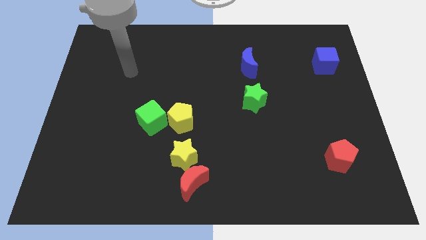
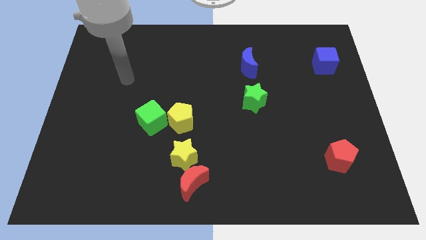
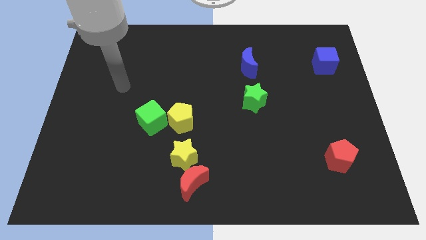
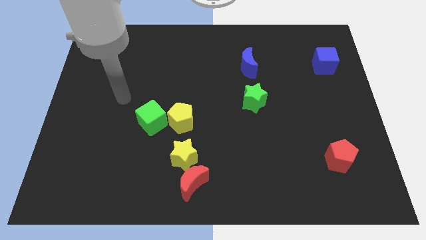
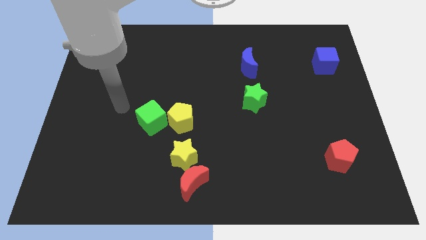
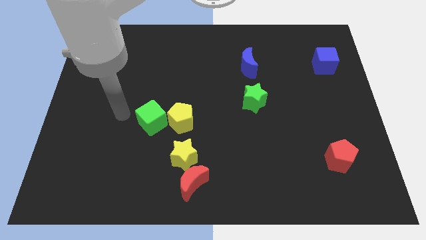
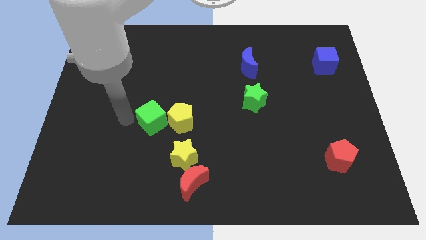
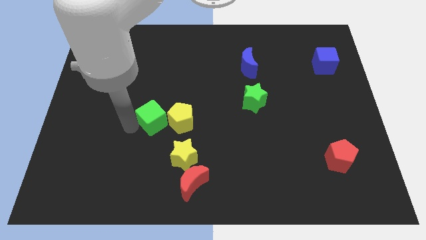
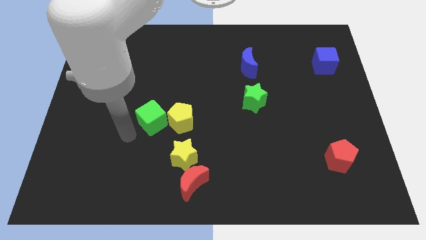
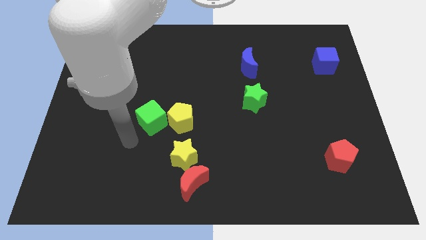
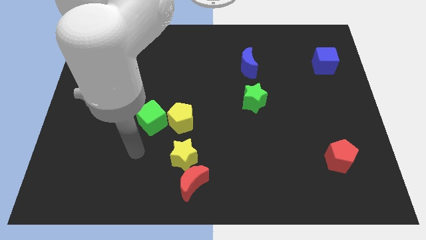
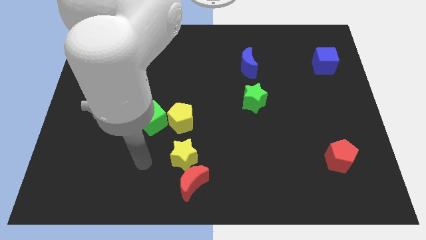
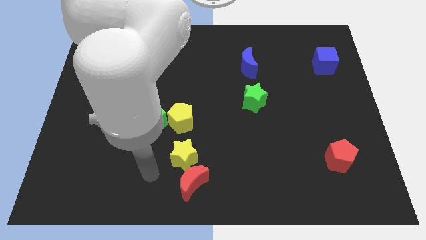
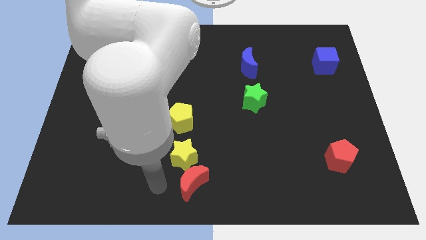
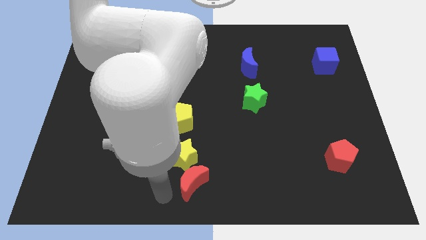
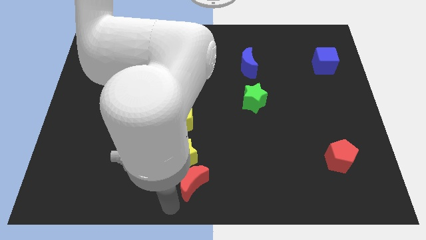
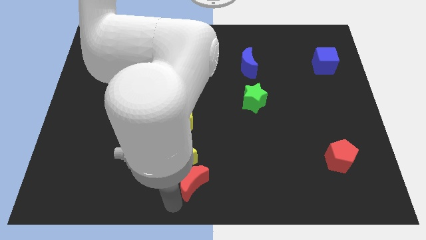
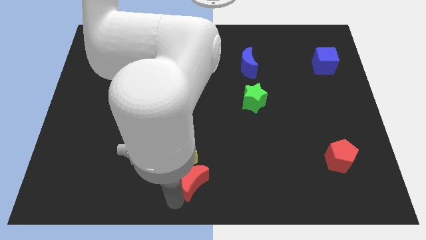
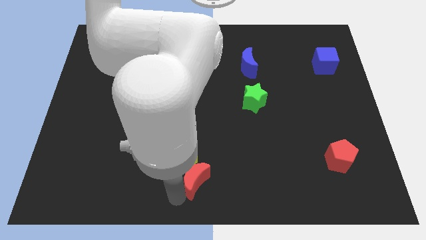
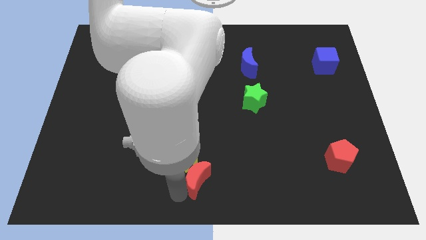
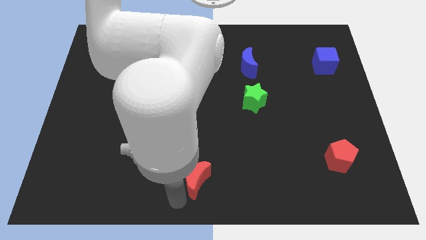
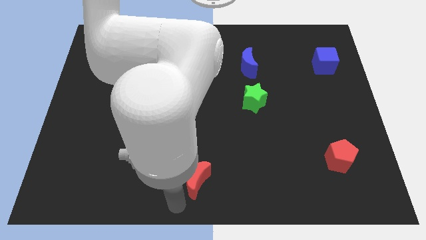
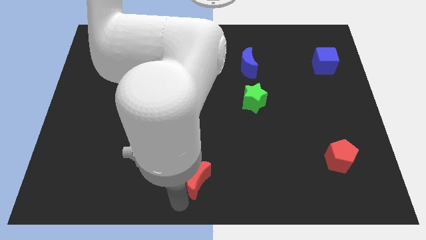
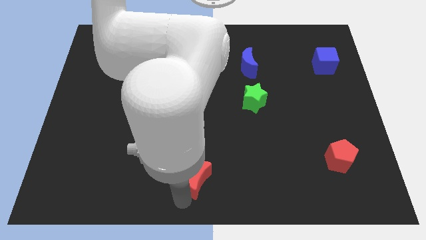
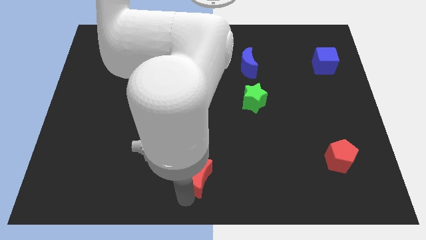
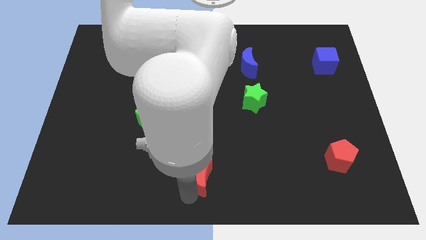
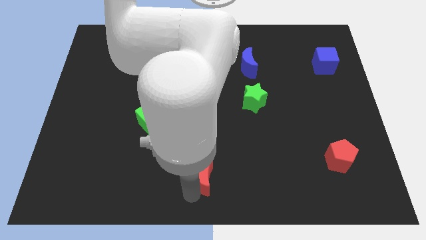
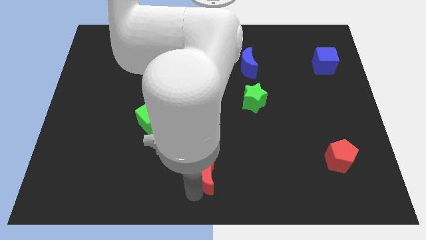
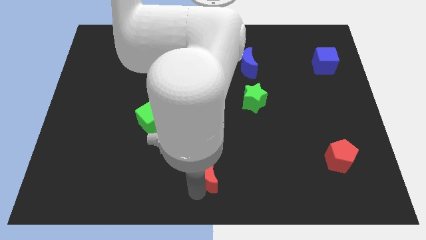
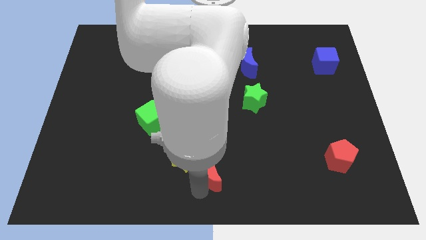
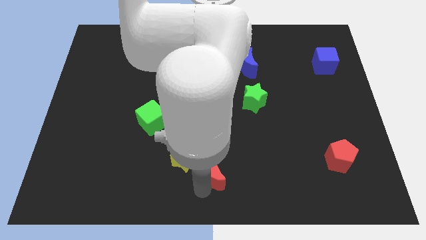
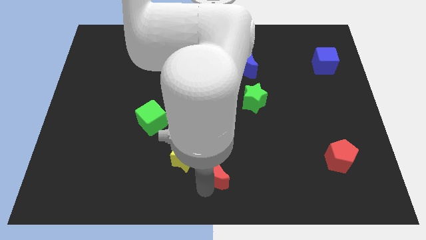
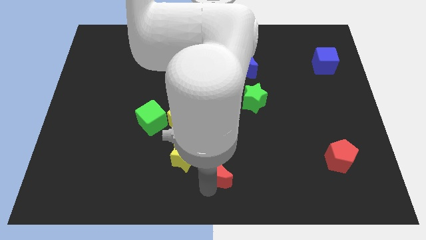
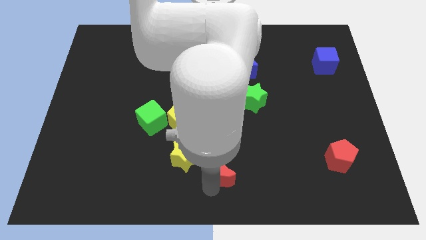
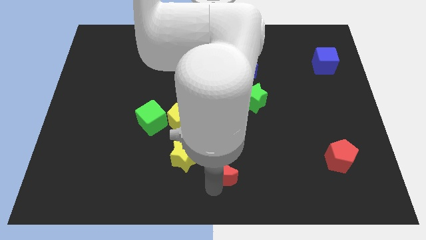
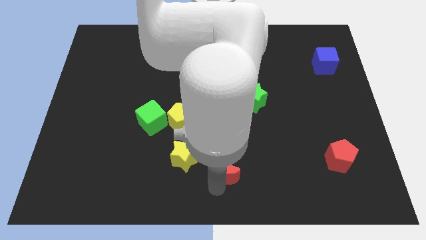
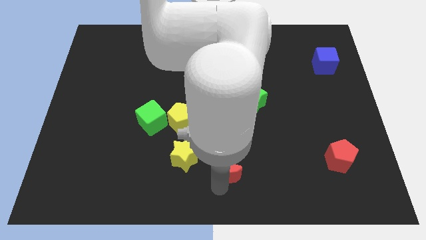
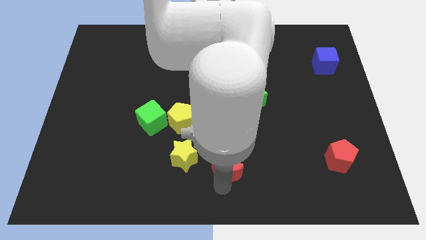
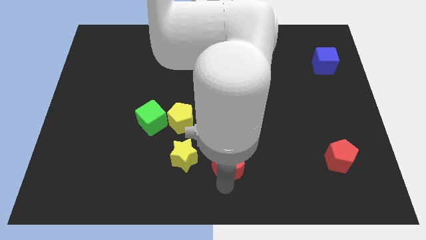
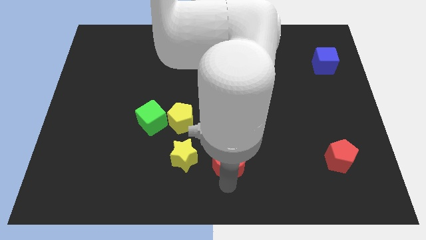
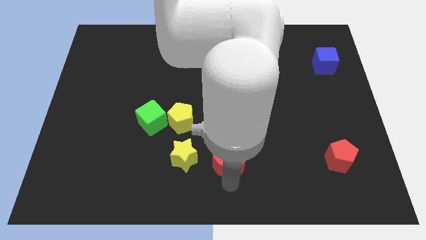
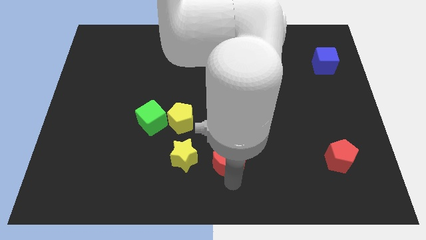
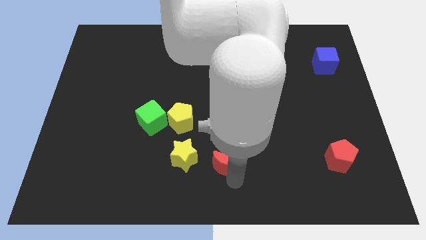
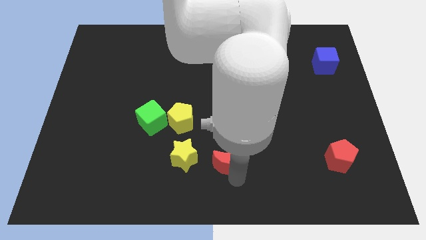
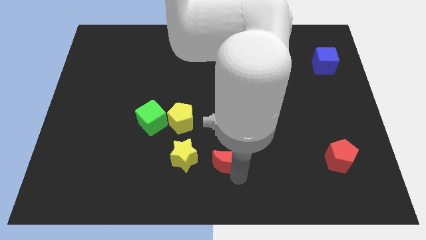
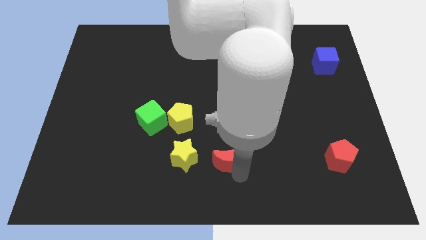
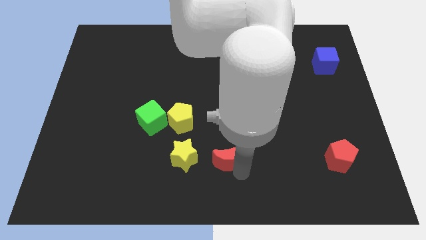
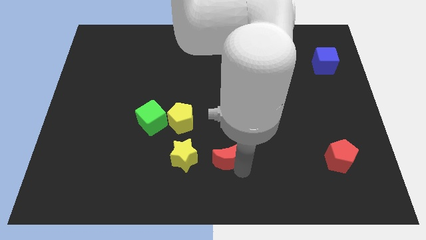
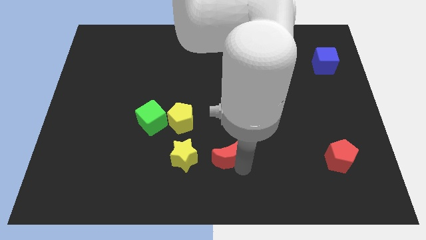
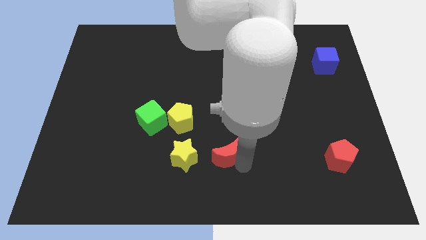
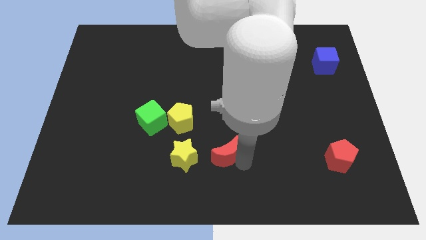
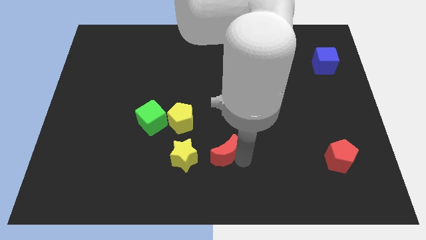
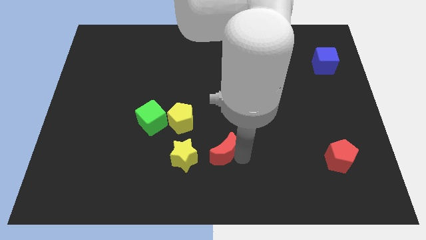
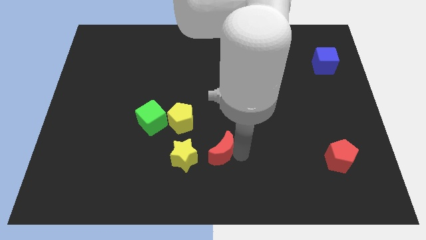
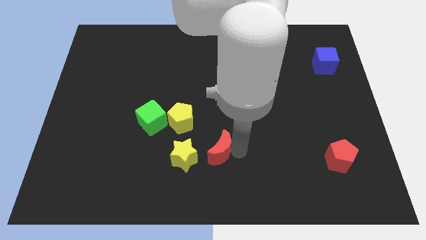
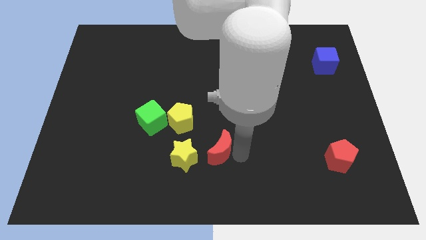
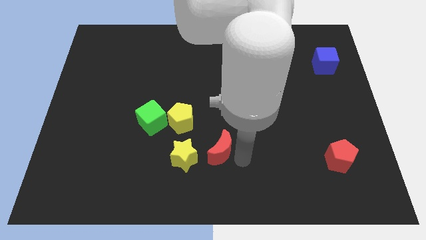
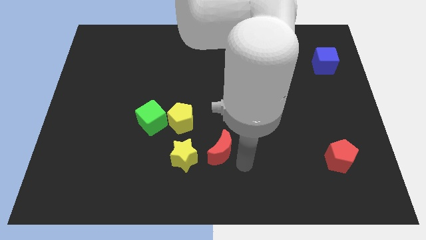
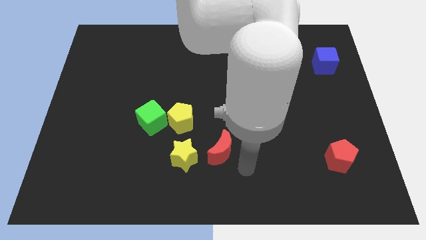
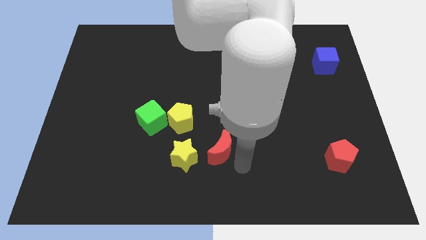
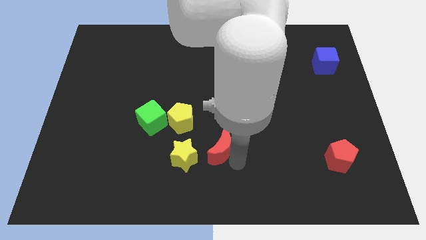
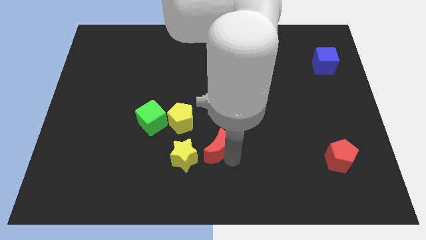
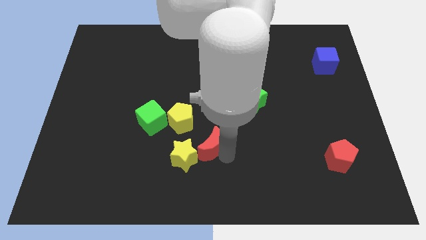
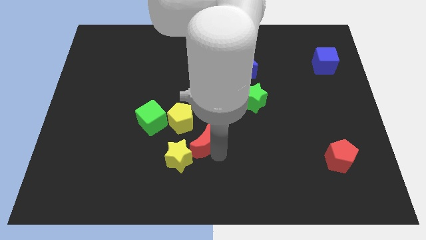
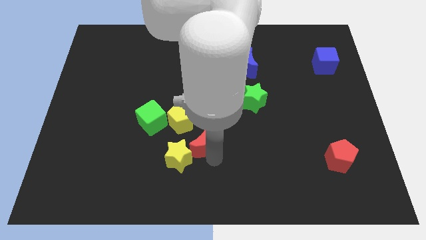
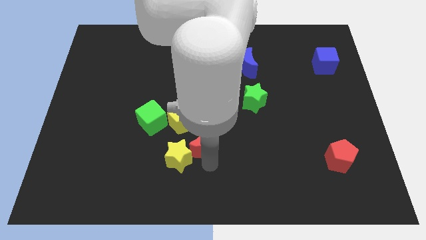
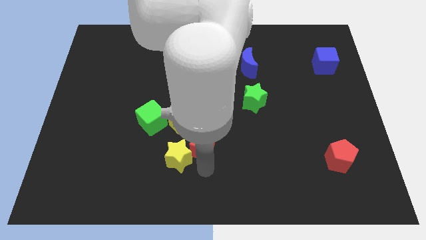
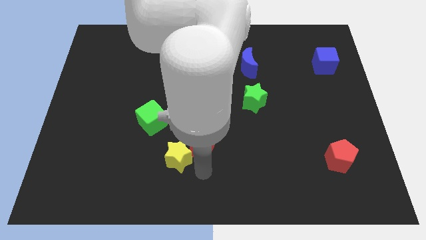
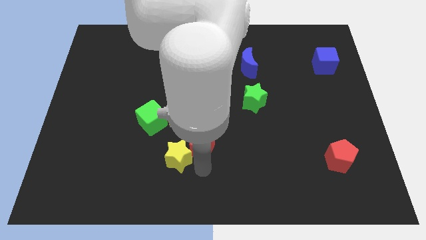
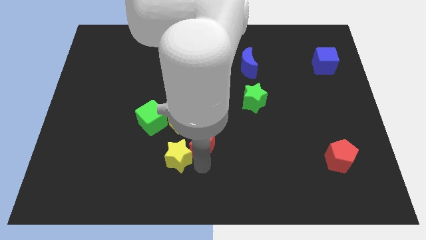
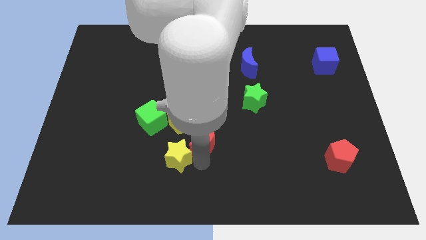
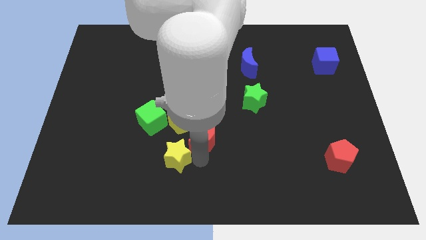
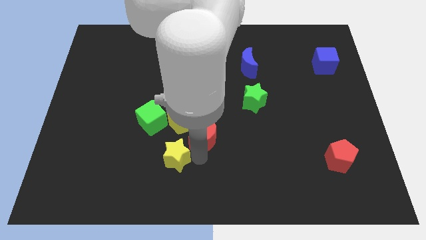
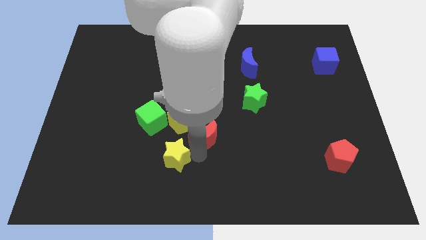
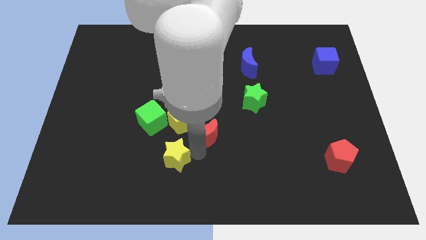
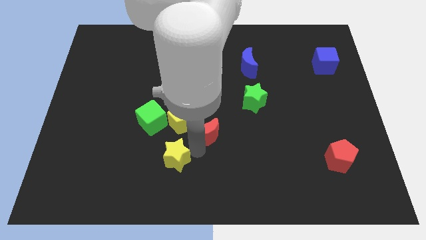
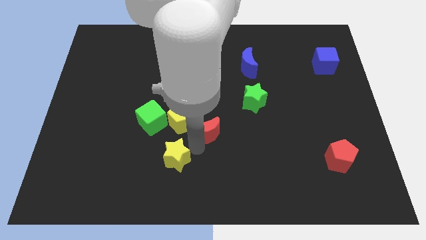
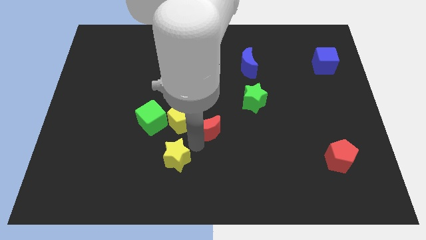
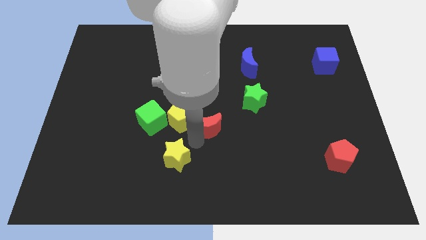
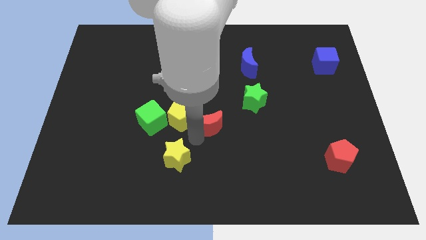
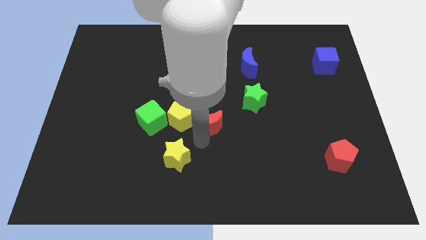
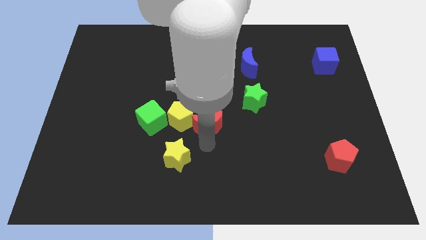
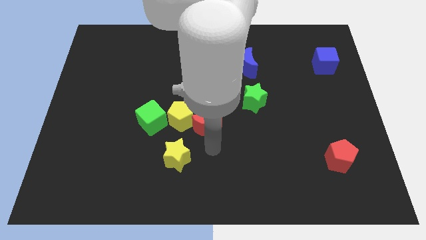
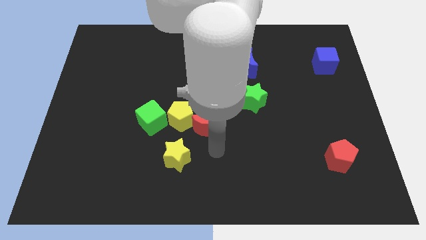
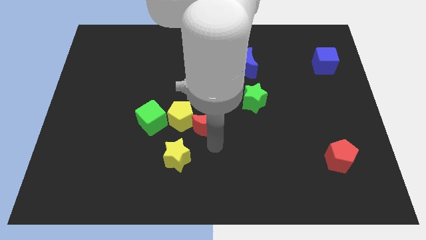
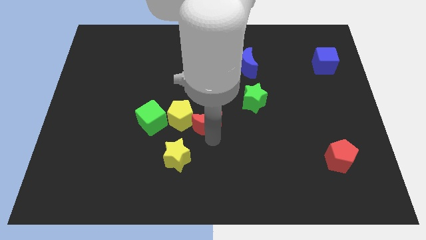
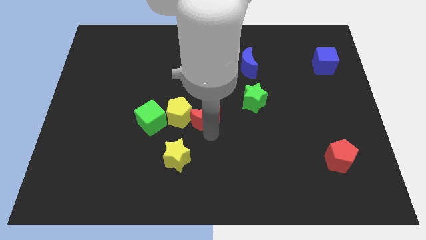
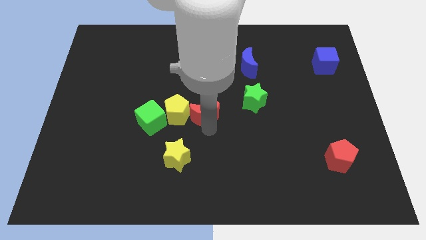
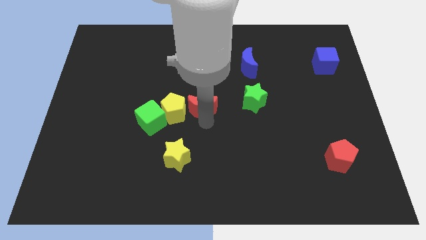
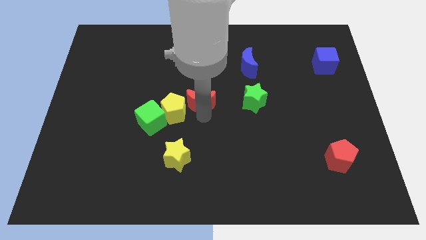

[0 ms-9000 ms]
slide the red moon upwards
